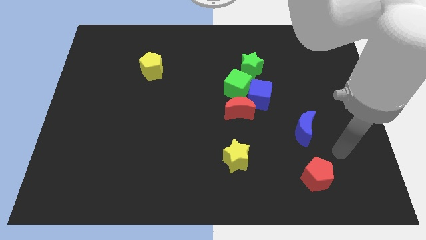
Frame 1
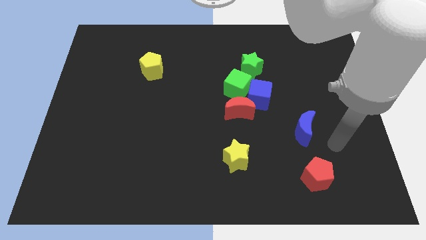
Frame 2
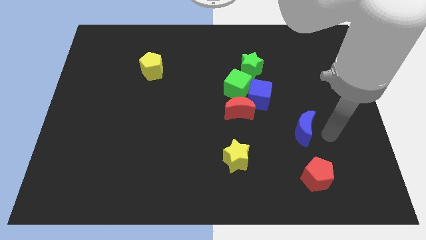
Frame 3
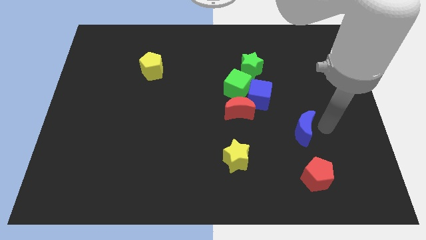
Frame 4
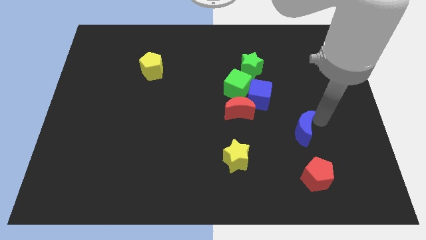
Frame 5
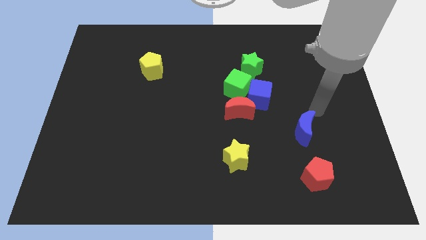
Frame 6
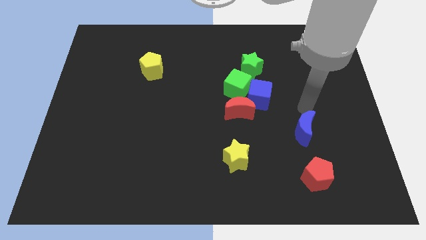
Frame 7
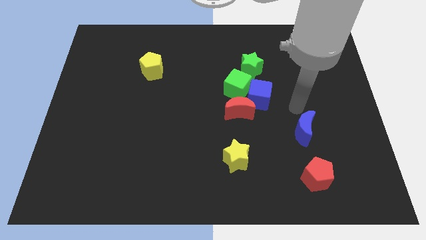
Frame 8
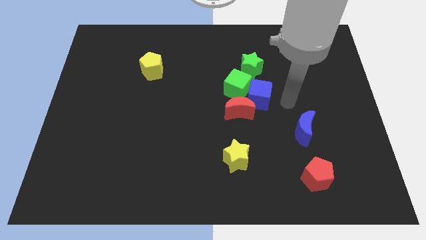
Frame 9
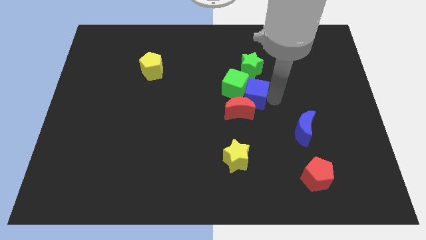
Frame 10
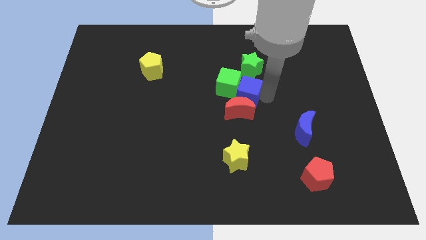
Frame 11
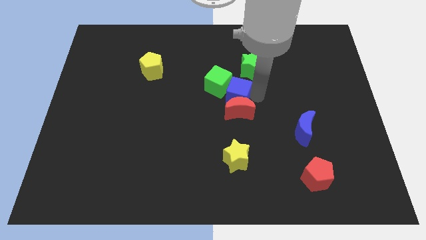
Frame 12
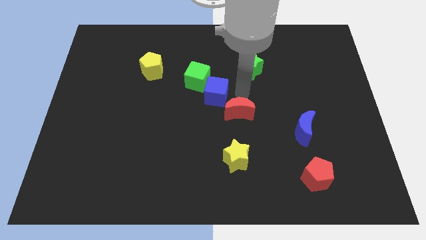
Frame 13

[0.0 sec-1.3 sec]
separate the red moon from the blue cube and green cube

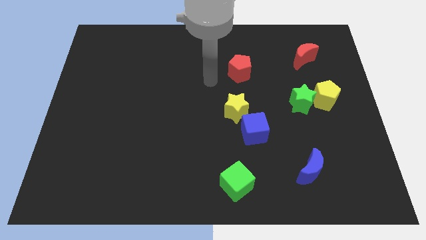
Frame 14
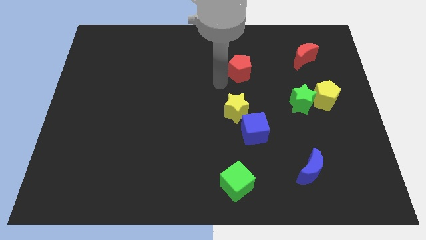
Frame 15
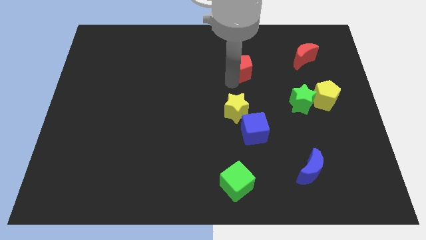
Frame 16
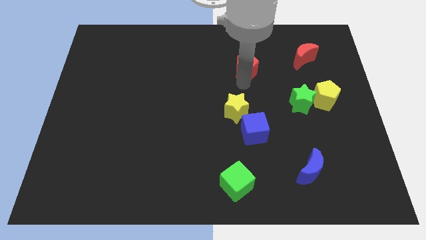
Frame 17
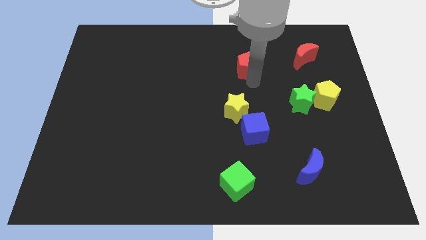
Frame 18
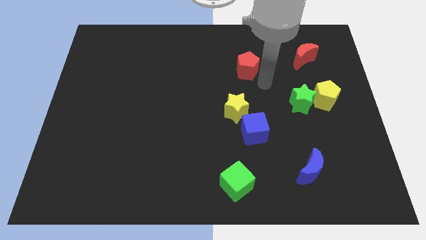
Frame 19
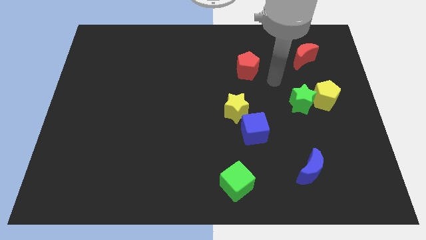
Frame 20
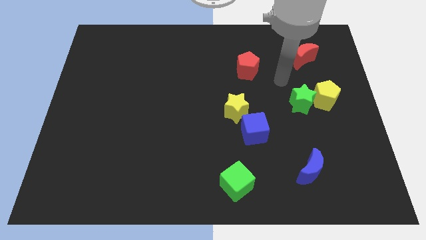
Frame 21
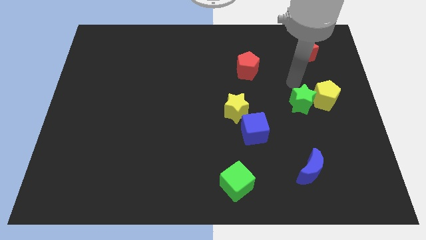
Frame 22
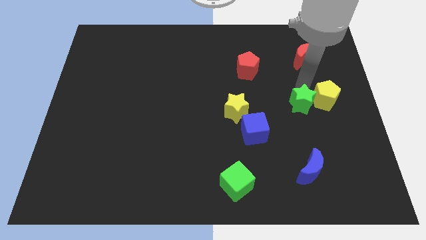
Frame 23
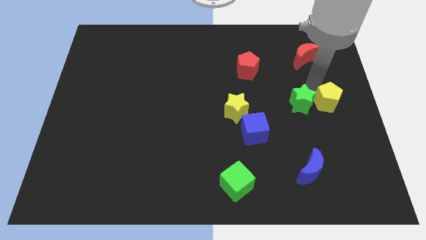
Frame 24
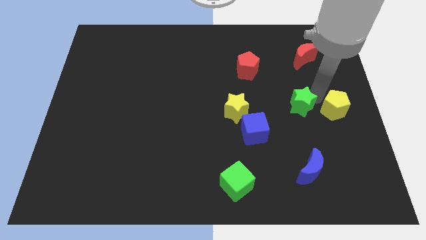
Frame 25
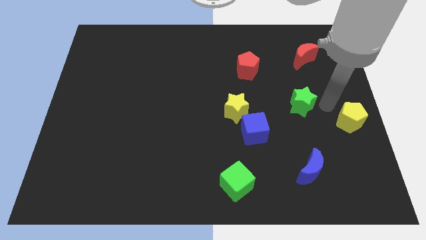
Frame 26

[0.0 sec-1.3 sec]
pull the green star apart from the yellow pentagon

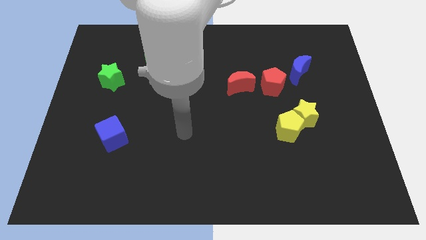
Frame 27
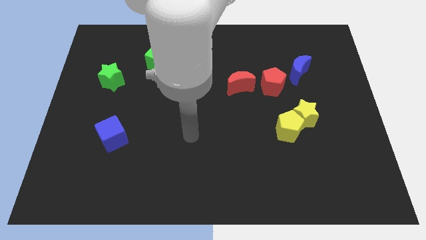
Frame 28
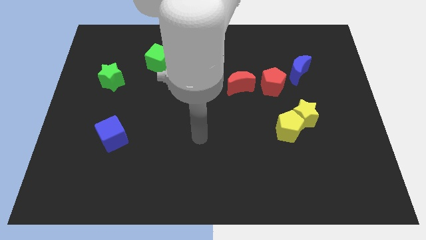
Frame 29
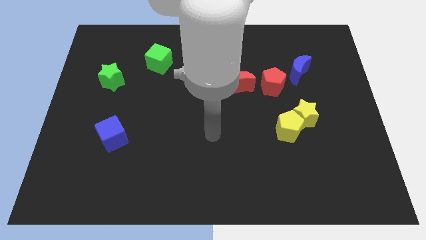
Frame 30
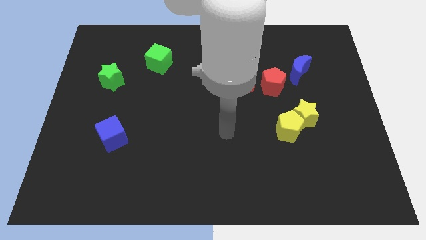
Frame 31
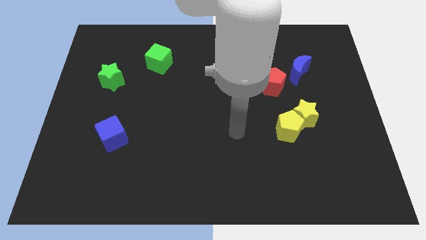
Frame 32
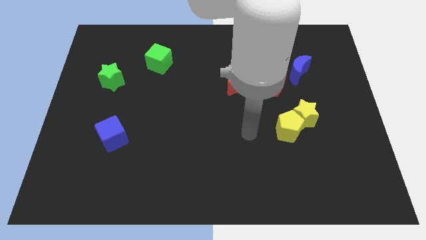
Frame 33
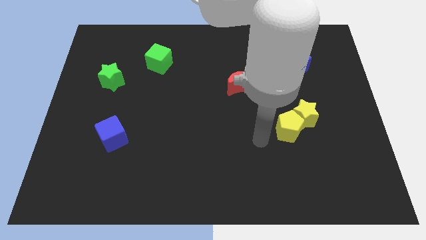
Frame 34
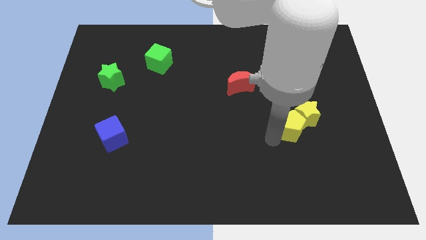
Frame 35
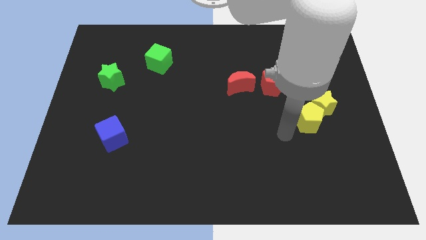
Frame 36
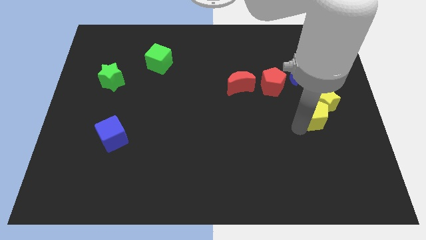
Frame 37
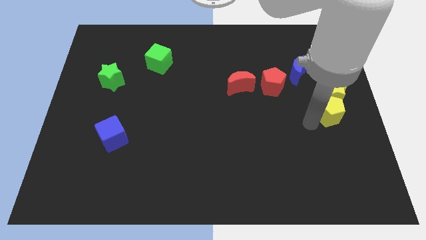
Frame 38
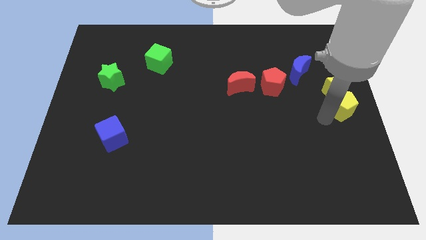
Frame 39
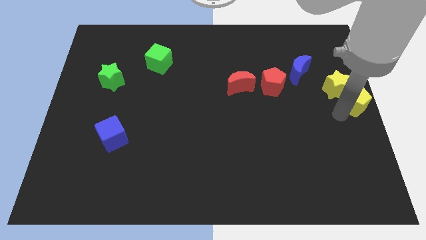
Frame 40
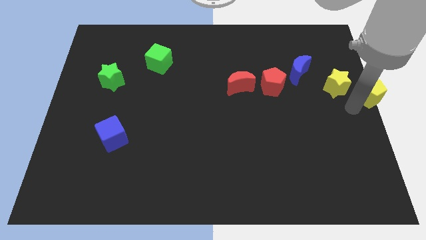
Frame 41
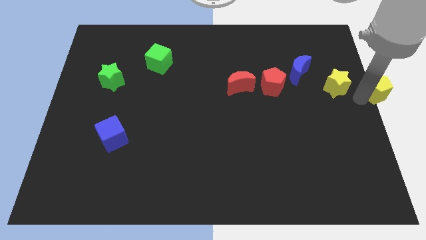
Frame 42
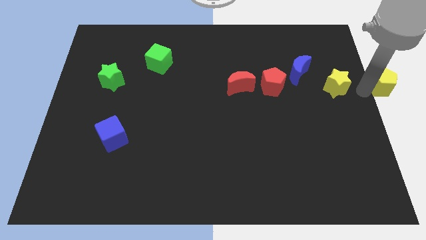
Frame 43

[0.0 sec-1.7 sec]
separate the yellow star from the yellow pentagon

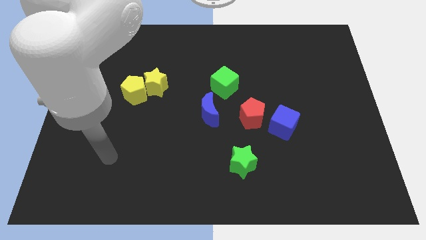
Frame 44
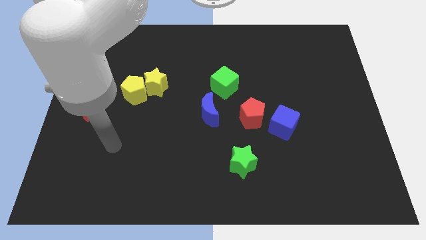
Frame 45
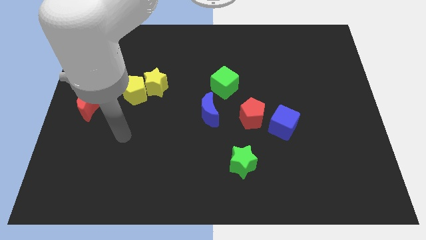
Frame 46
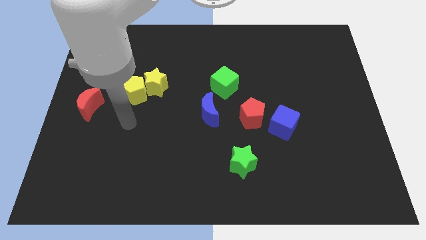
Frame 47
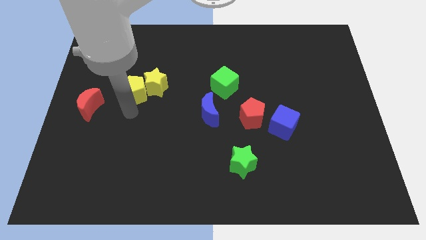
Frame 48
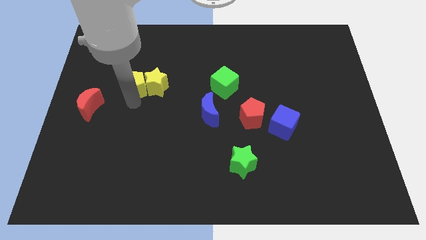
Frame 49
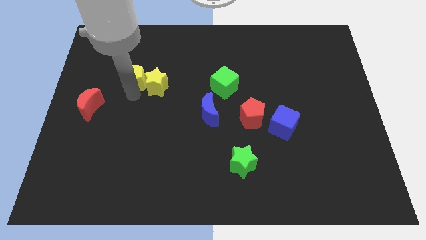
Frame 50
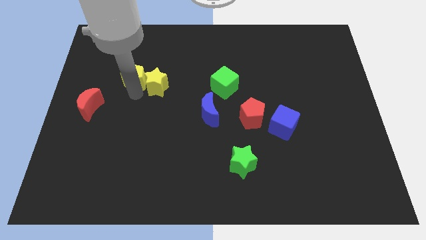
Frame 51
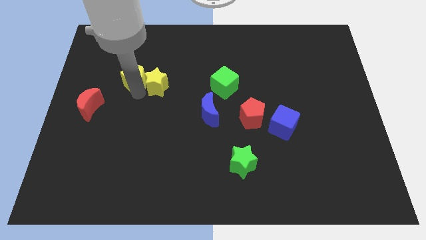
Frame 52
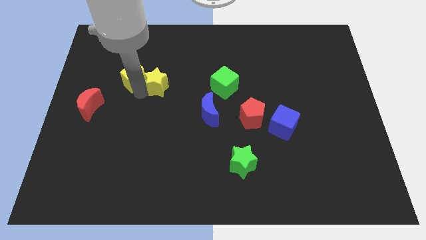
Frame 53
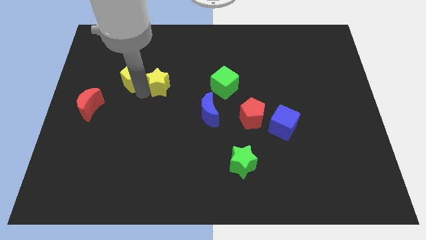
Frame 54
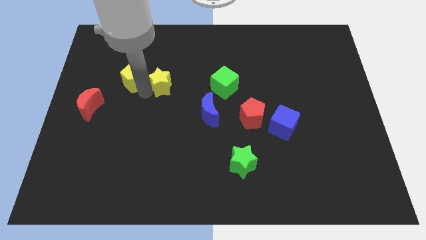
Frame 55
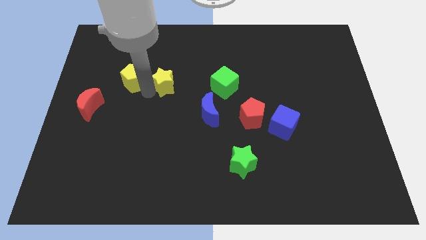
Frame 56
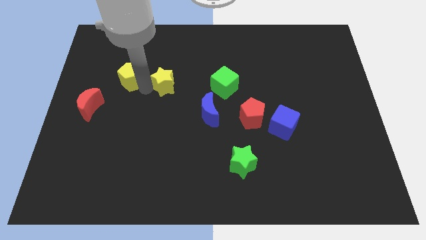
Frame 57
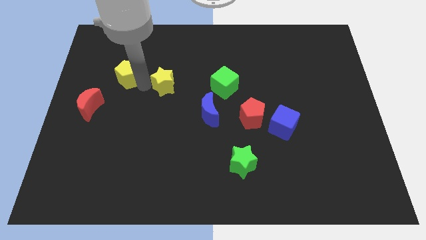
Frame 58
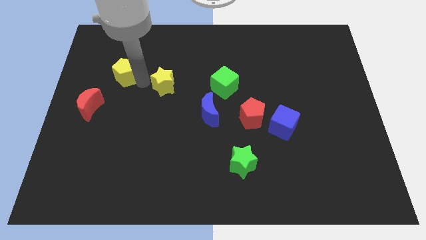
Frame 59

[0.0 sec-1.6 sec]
move the yellow star away from the yellow pentagon

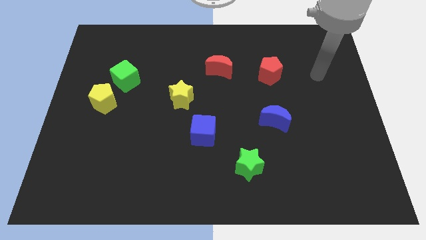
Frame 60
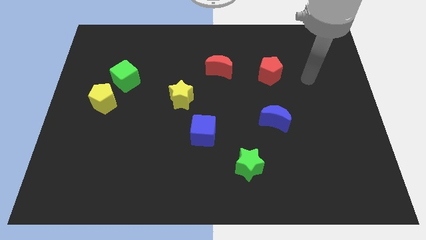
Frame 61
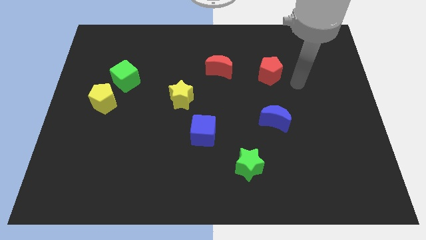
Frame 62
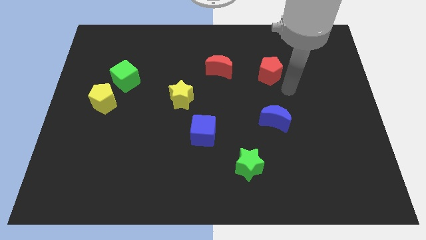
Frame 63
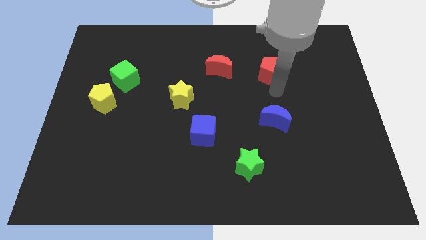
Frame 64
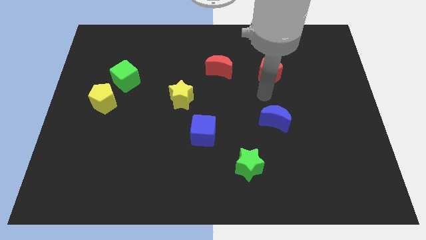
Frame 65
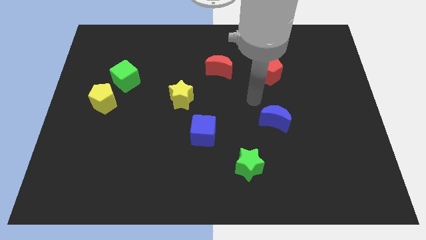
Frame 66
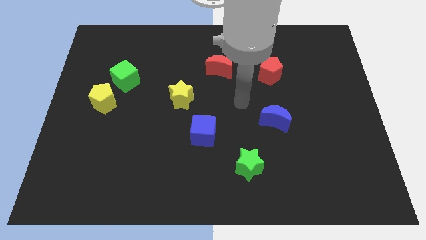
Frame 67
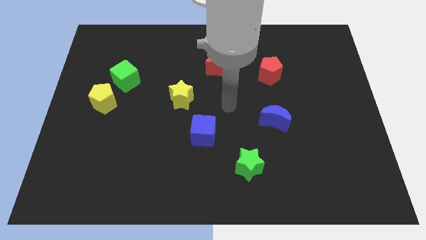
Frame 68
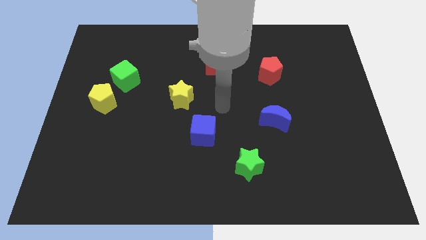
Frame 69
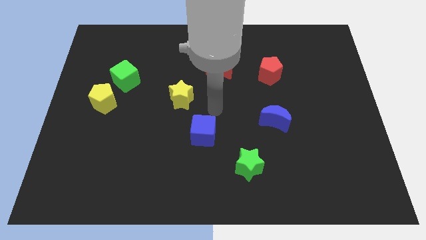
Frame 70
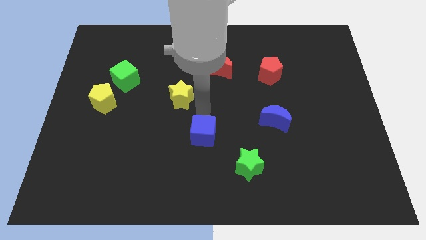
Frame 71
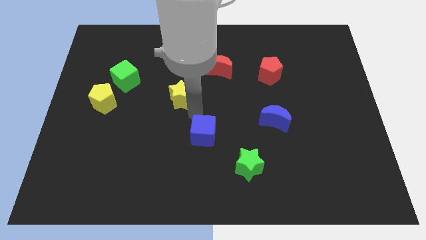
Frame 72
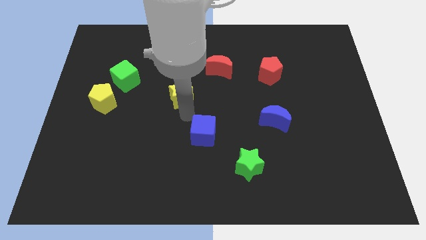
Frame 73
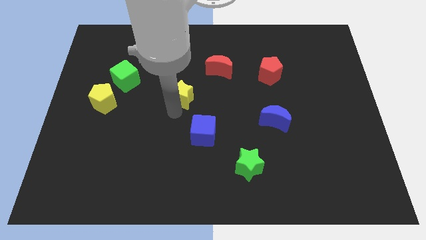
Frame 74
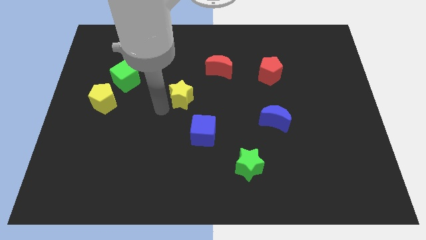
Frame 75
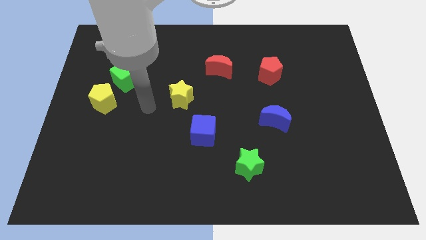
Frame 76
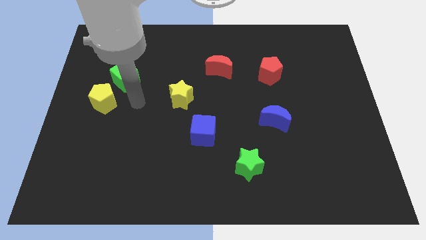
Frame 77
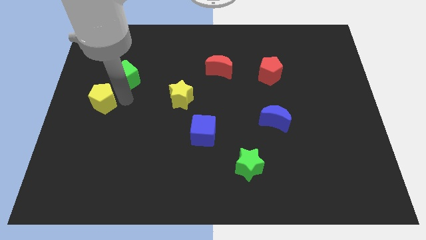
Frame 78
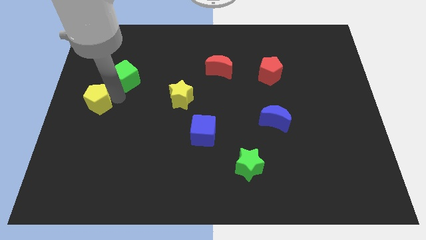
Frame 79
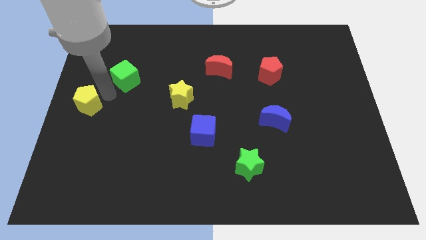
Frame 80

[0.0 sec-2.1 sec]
move the green cube away from the yellow pentagon

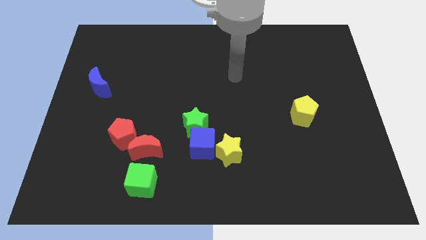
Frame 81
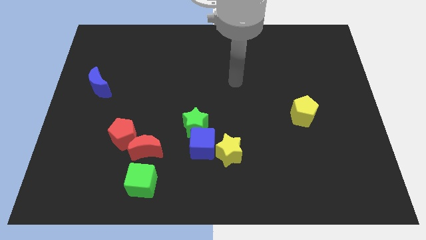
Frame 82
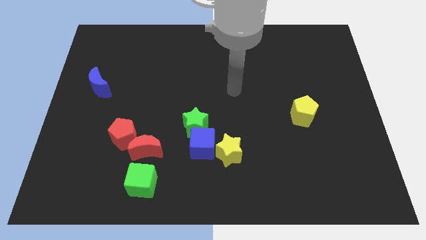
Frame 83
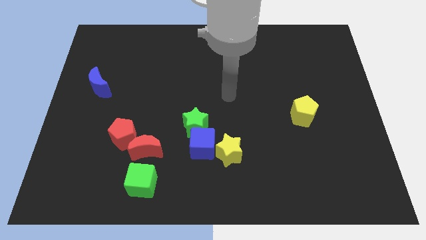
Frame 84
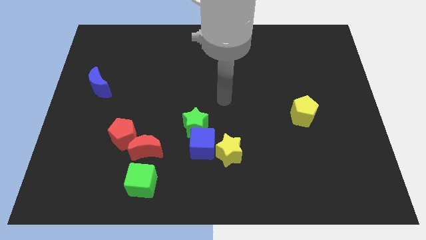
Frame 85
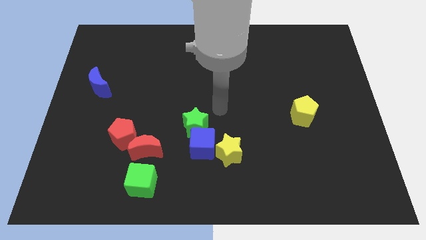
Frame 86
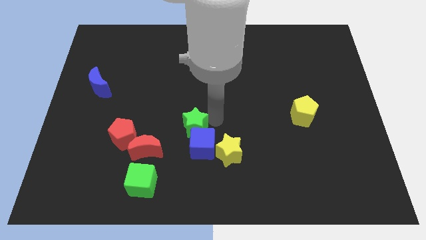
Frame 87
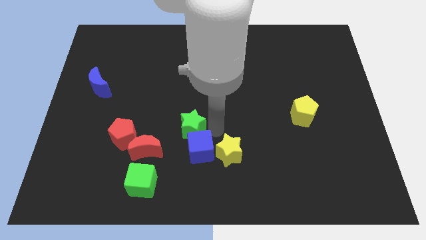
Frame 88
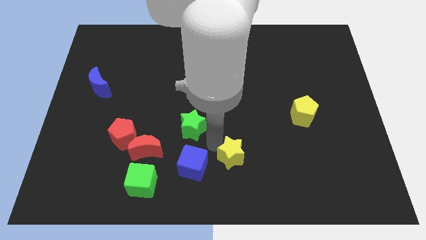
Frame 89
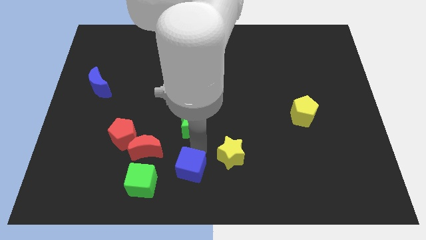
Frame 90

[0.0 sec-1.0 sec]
move the green star away from the blue cube

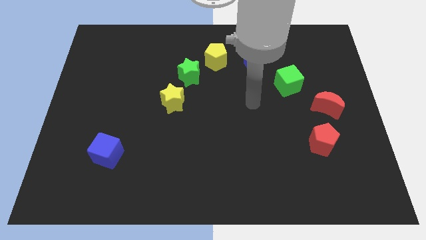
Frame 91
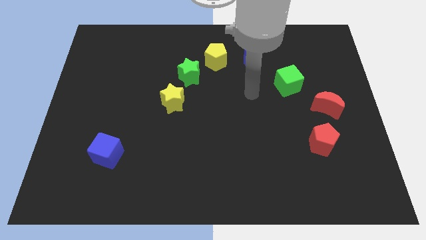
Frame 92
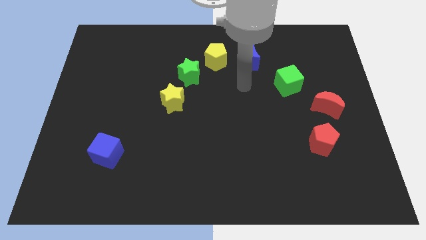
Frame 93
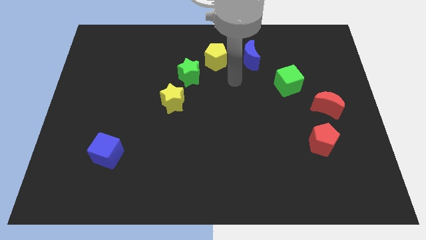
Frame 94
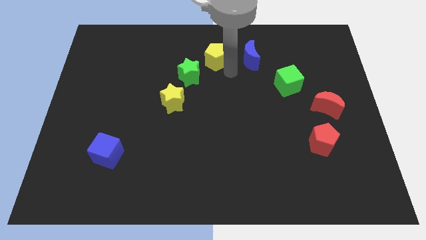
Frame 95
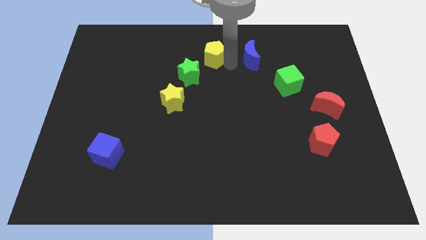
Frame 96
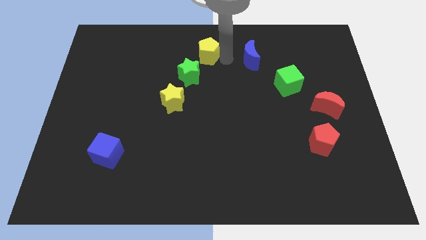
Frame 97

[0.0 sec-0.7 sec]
separate the blue moon from the yellow pentagon
